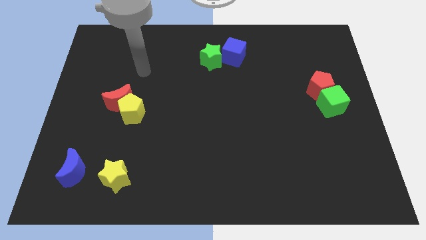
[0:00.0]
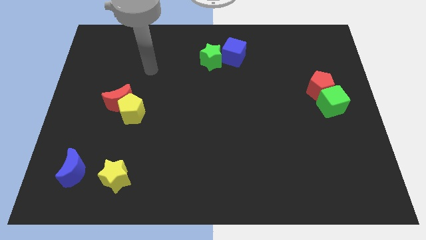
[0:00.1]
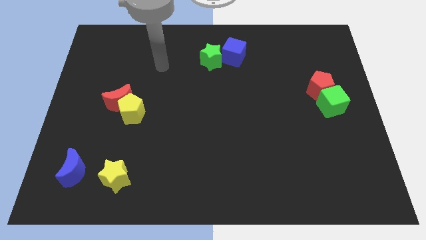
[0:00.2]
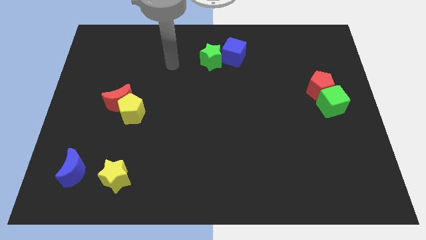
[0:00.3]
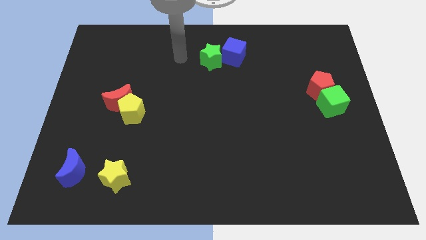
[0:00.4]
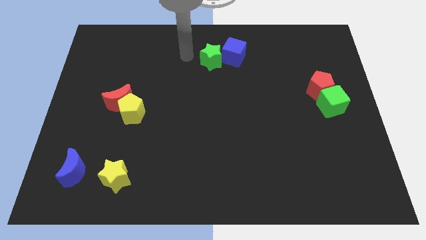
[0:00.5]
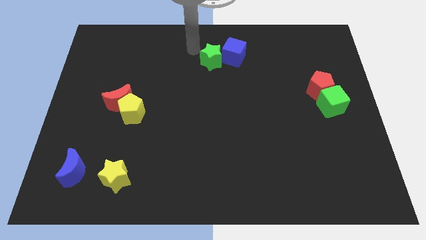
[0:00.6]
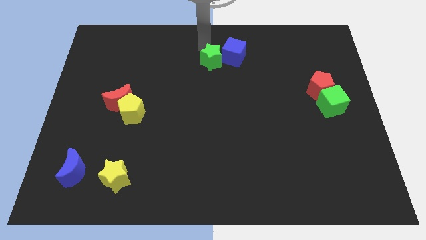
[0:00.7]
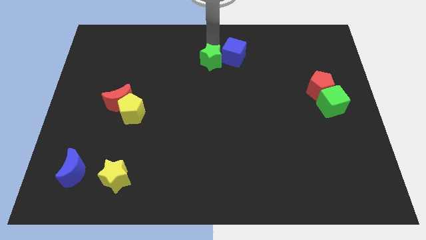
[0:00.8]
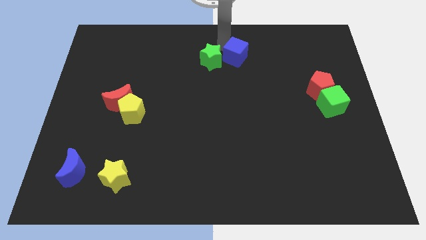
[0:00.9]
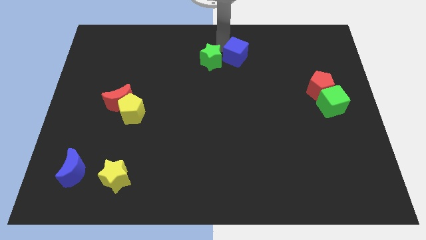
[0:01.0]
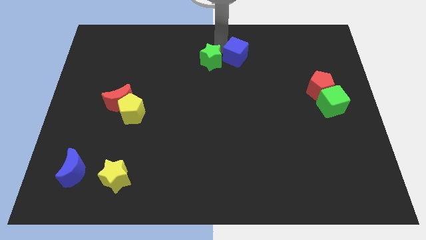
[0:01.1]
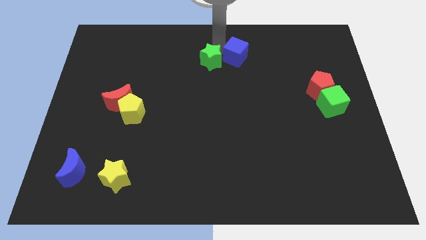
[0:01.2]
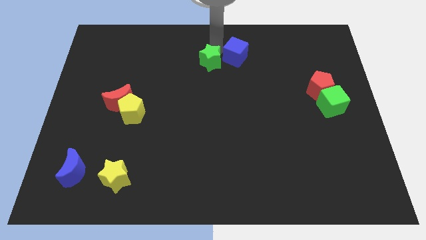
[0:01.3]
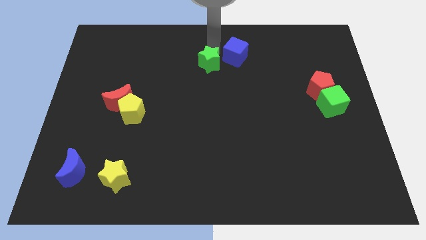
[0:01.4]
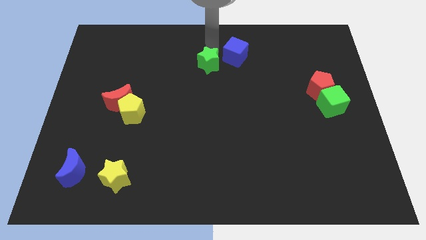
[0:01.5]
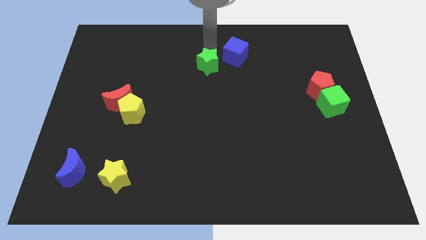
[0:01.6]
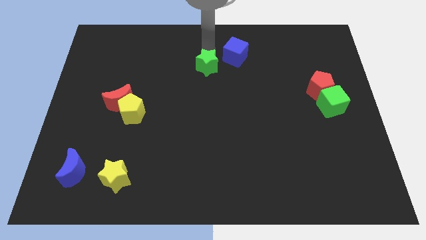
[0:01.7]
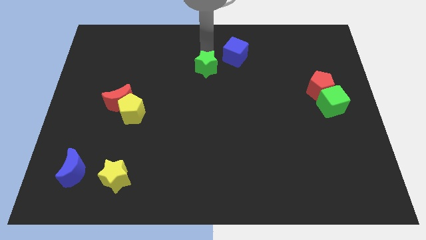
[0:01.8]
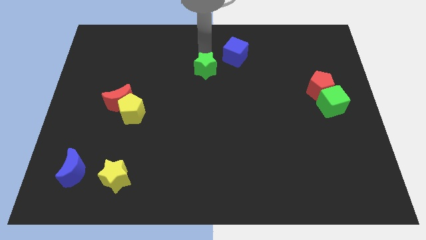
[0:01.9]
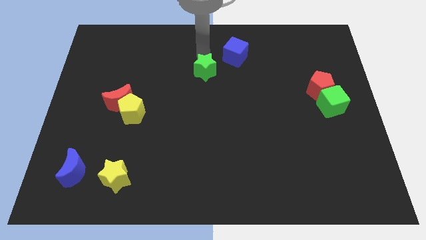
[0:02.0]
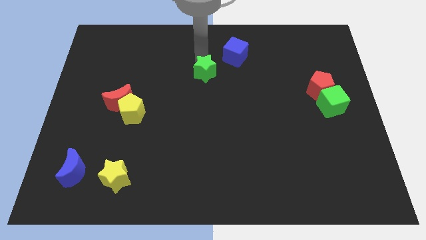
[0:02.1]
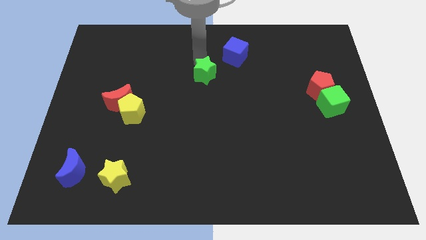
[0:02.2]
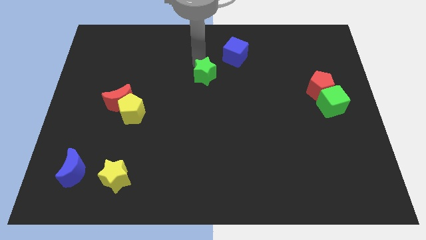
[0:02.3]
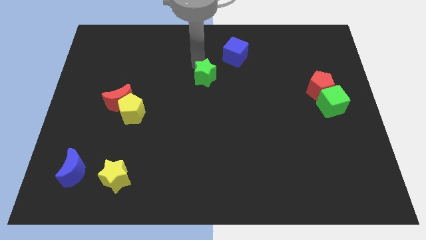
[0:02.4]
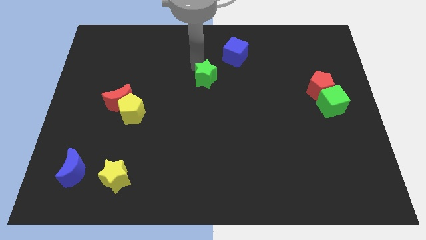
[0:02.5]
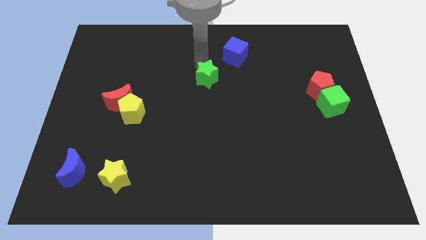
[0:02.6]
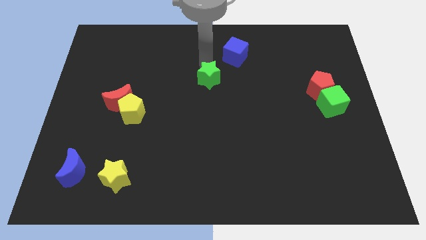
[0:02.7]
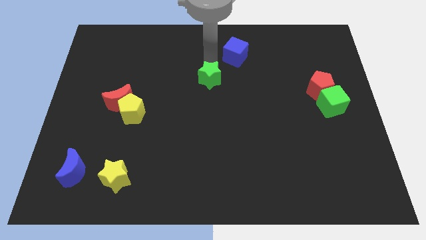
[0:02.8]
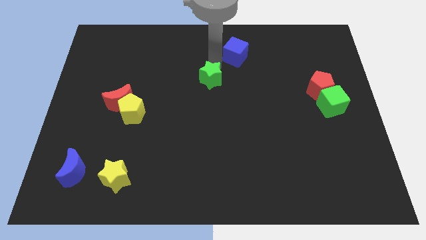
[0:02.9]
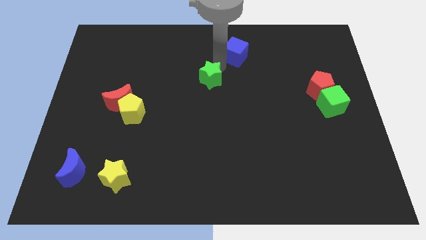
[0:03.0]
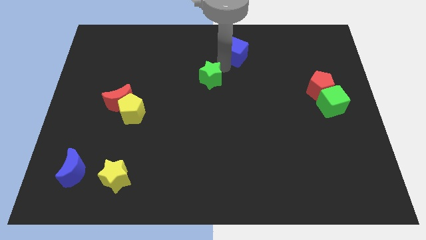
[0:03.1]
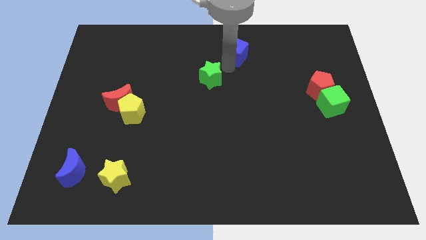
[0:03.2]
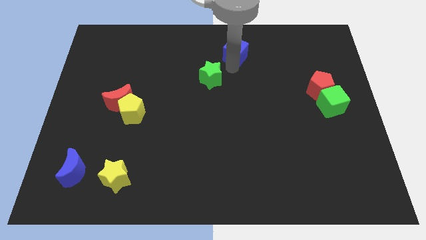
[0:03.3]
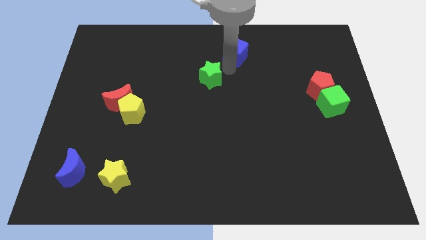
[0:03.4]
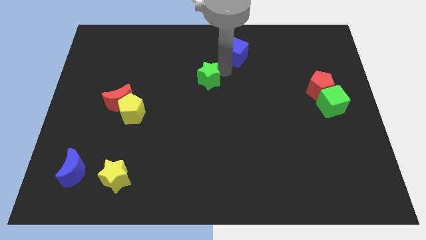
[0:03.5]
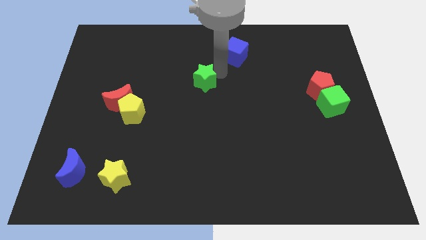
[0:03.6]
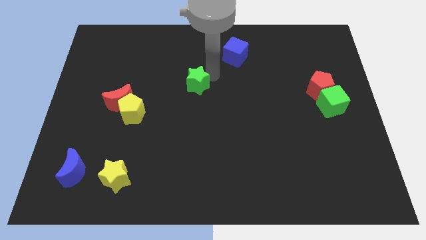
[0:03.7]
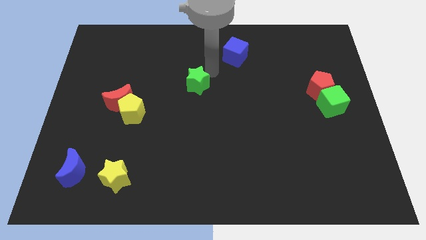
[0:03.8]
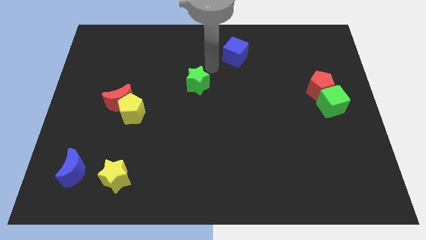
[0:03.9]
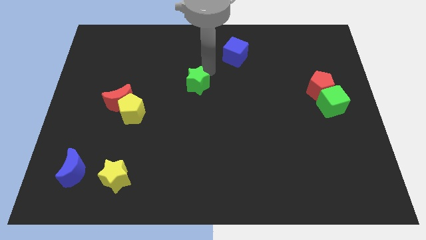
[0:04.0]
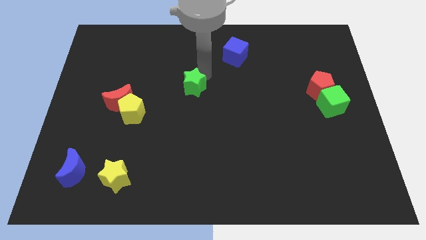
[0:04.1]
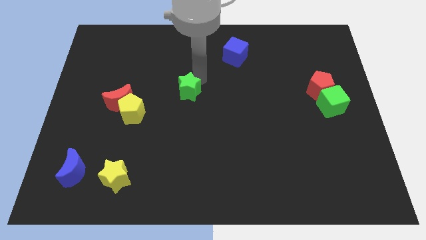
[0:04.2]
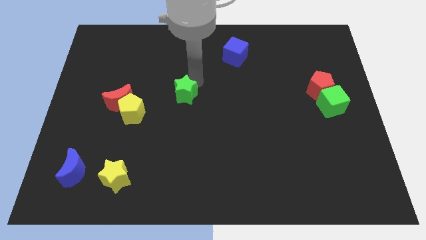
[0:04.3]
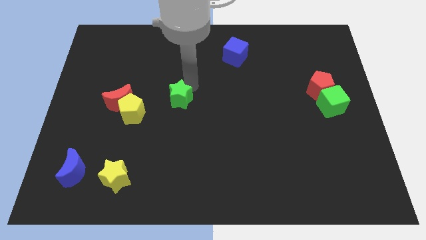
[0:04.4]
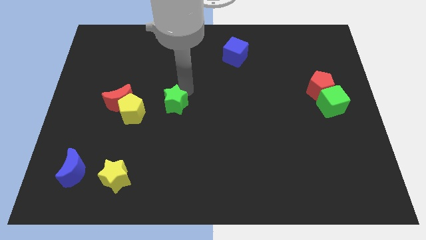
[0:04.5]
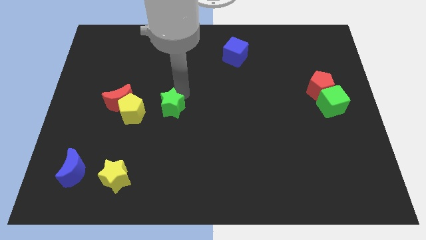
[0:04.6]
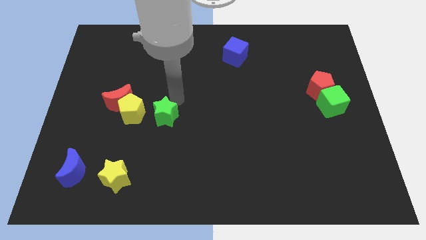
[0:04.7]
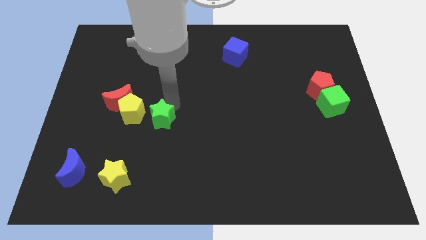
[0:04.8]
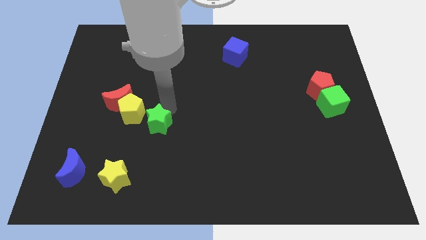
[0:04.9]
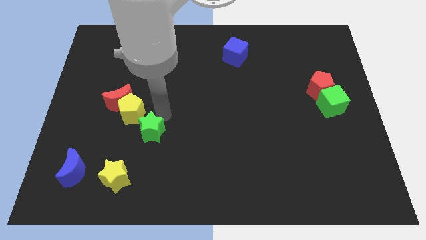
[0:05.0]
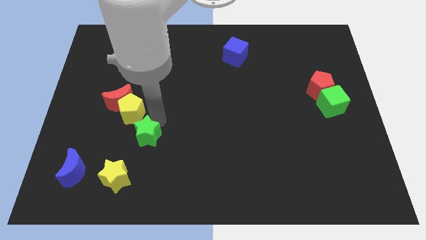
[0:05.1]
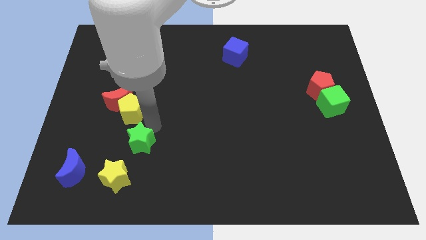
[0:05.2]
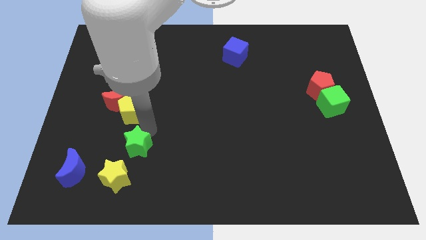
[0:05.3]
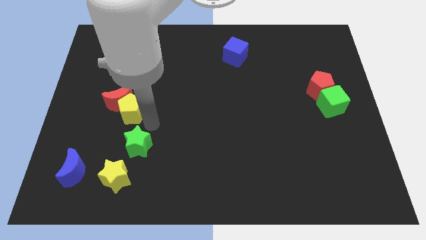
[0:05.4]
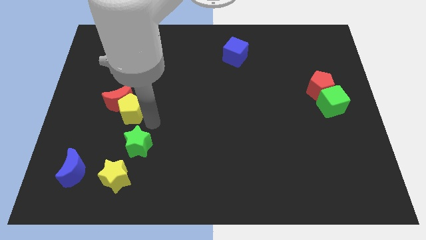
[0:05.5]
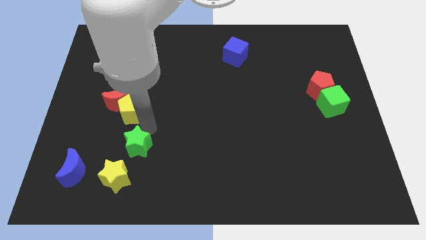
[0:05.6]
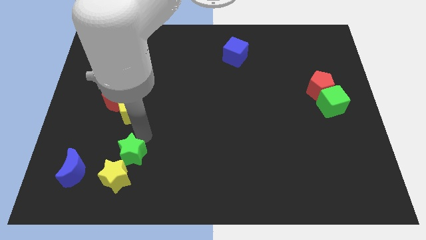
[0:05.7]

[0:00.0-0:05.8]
move the green star to the yellow star

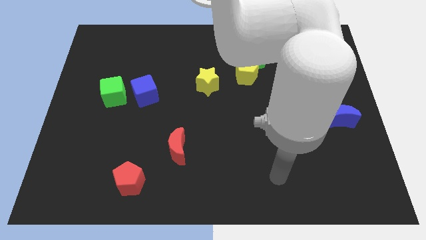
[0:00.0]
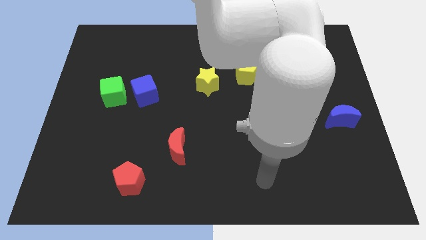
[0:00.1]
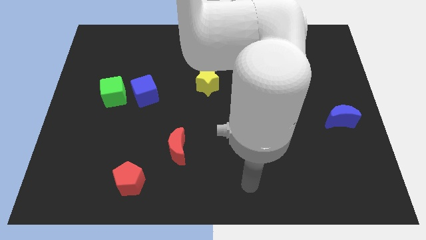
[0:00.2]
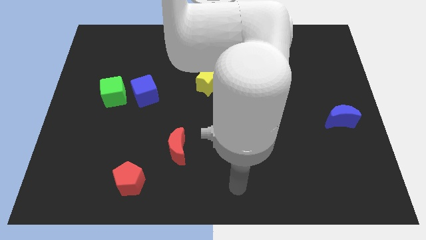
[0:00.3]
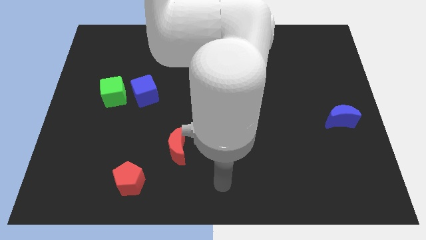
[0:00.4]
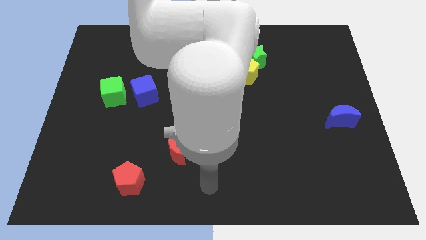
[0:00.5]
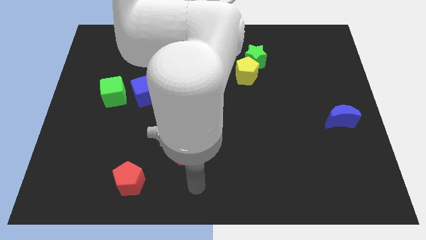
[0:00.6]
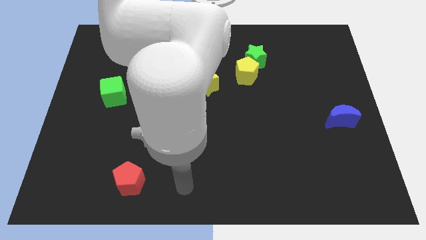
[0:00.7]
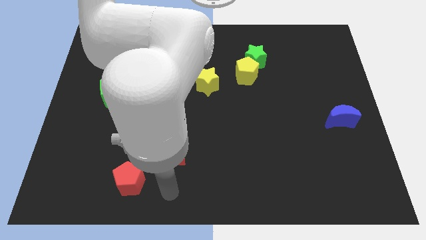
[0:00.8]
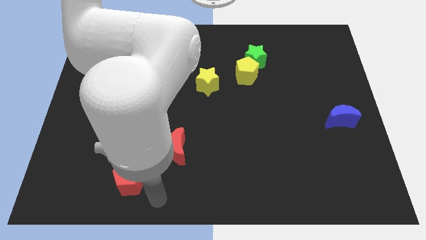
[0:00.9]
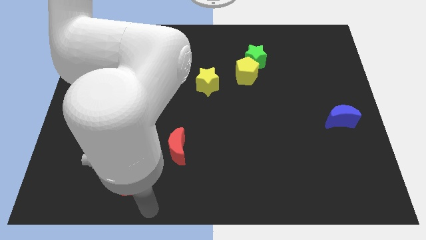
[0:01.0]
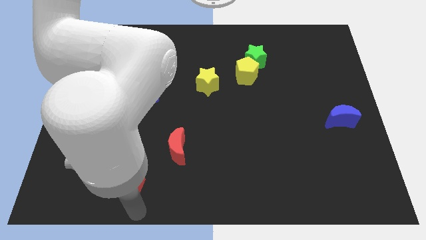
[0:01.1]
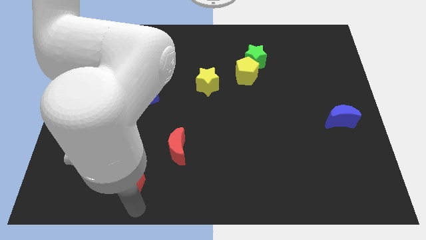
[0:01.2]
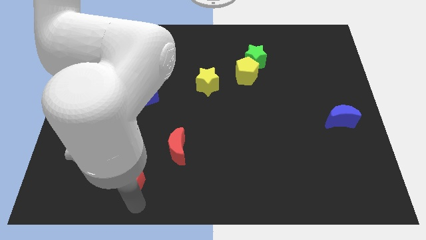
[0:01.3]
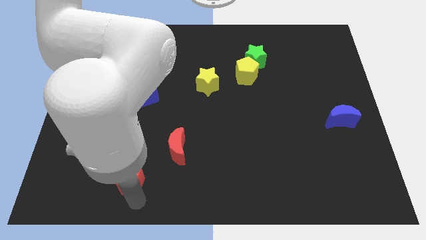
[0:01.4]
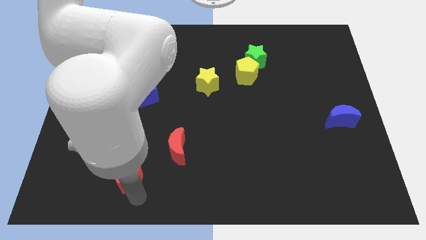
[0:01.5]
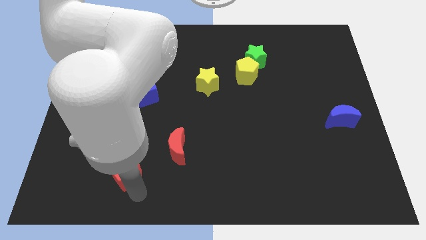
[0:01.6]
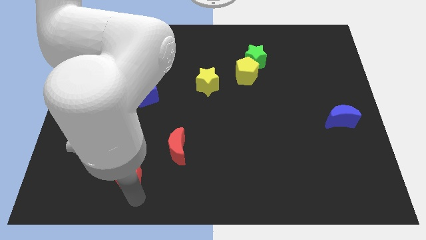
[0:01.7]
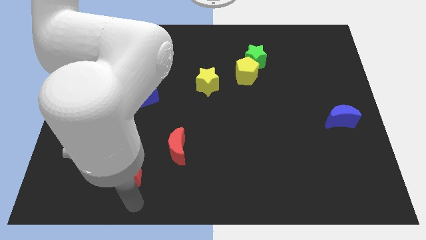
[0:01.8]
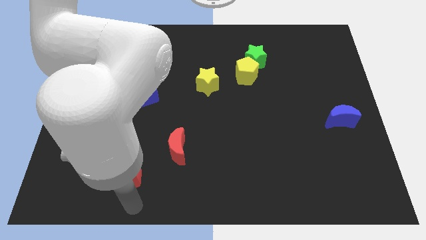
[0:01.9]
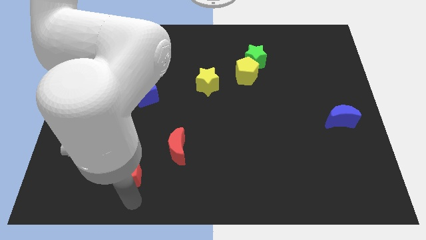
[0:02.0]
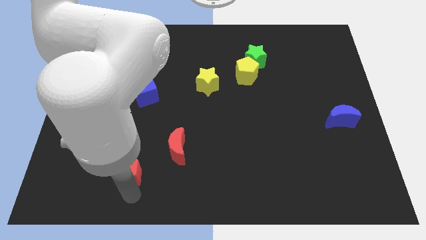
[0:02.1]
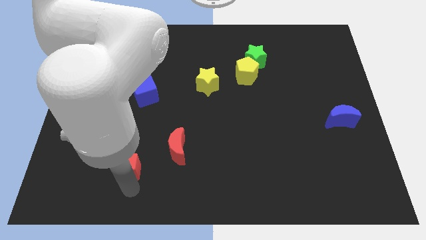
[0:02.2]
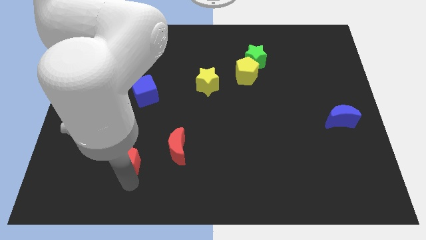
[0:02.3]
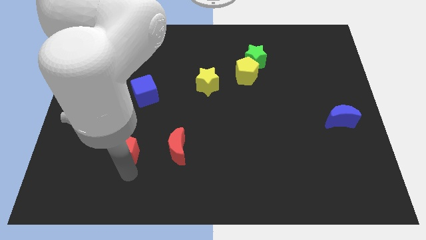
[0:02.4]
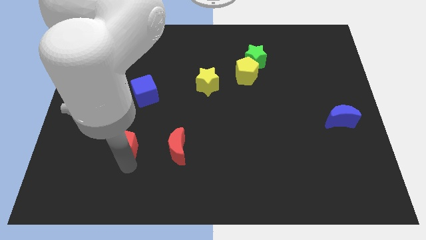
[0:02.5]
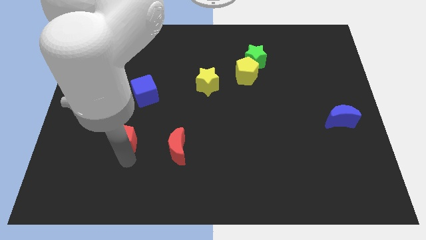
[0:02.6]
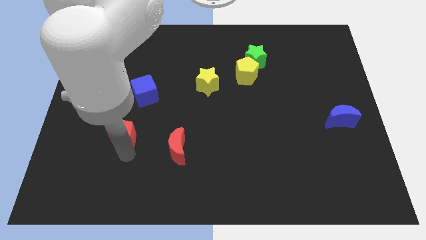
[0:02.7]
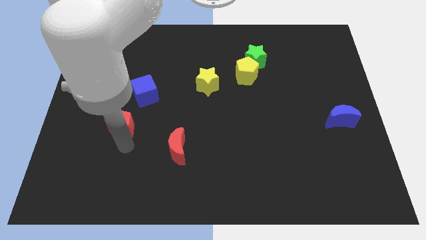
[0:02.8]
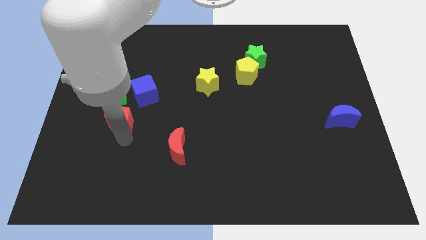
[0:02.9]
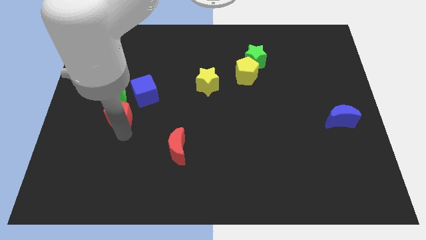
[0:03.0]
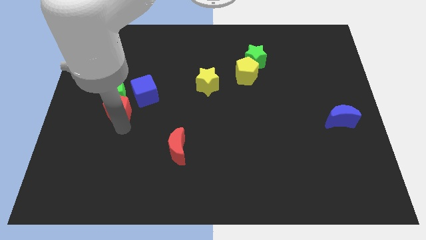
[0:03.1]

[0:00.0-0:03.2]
put the red pentagon next to the green cube
